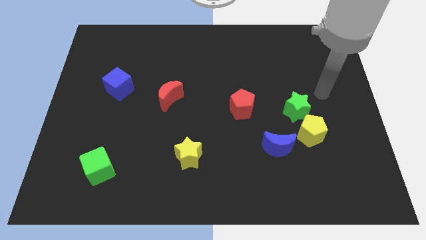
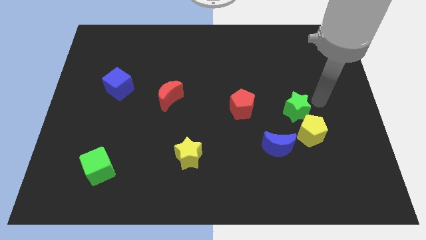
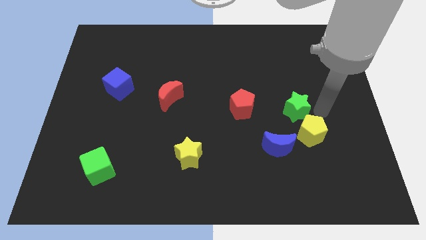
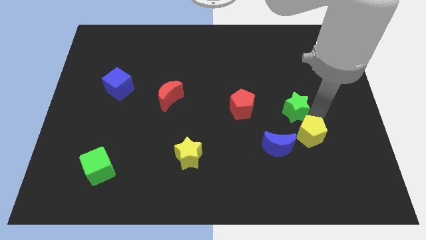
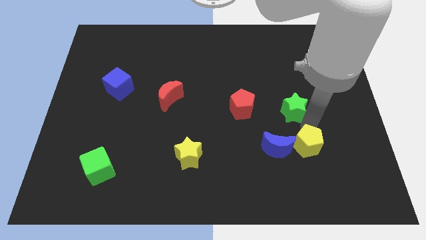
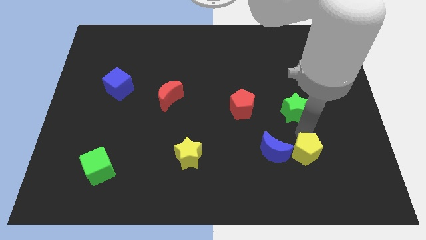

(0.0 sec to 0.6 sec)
move the green star away from the yellow pentagon

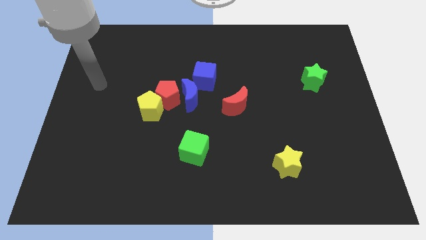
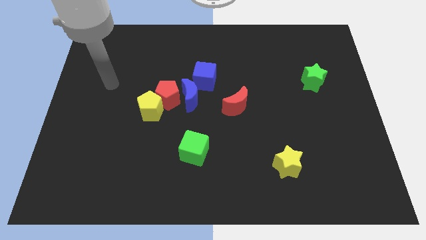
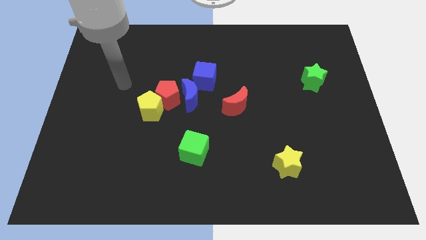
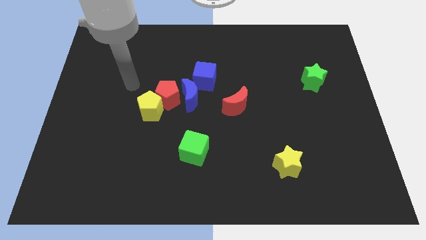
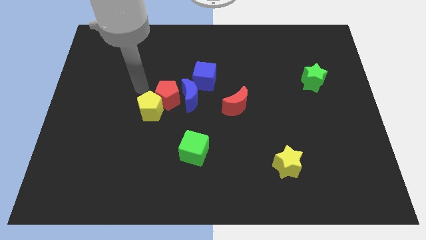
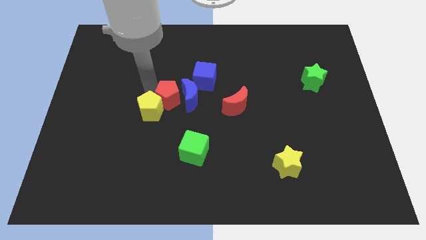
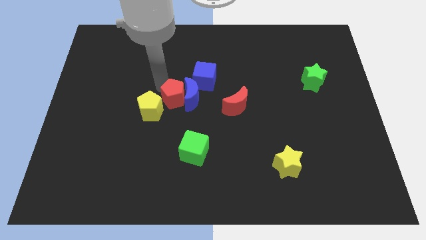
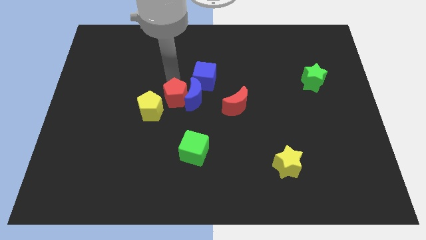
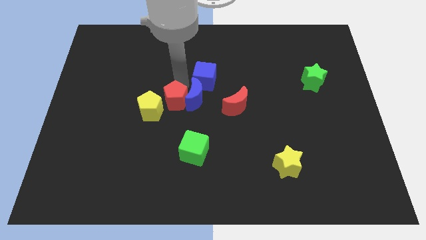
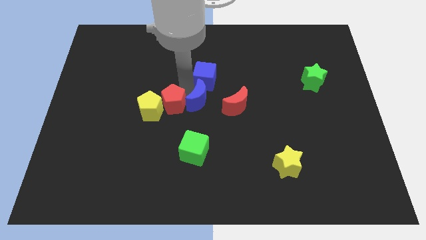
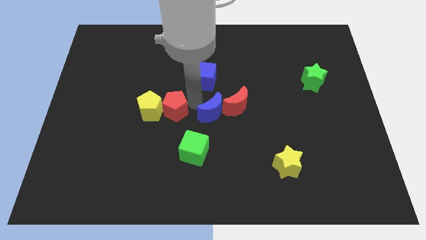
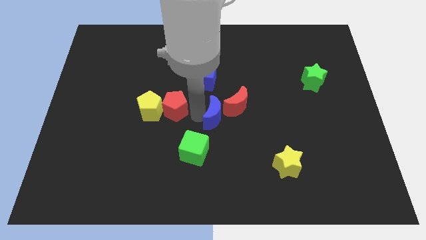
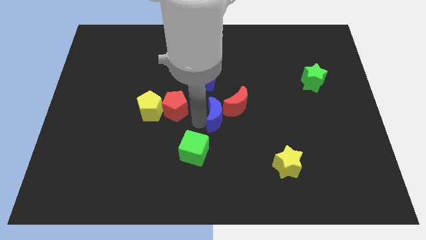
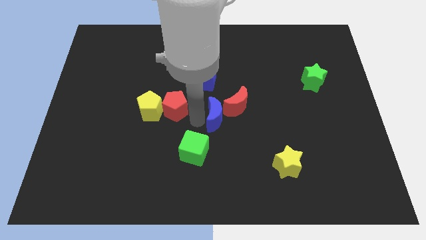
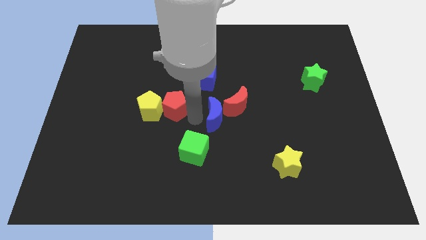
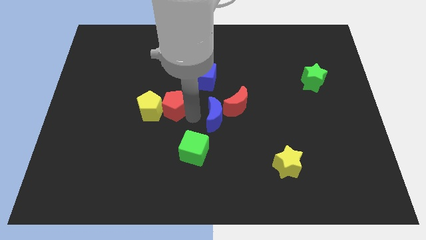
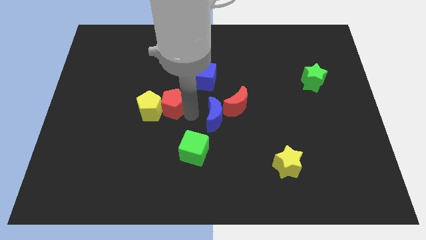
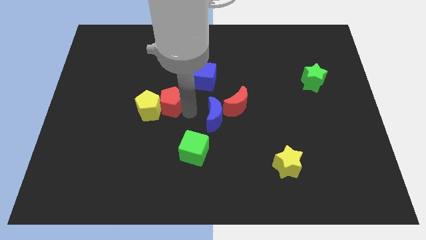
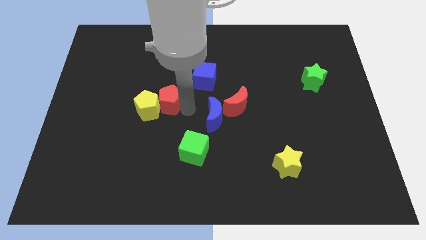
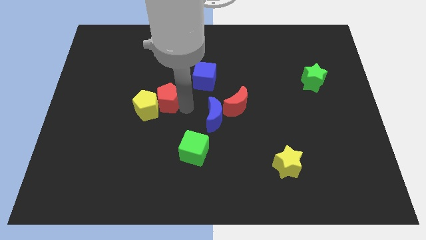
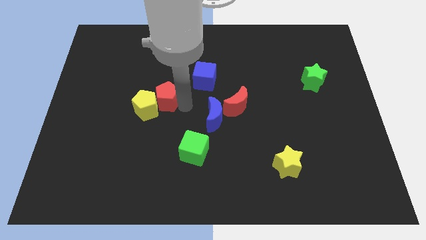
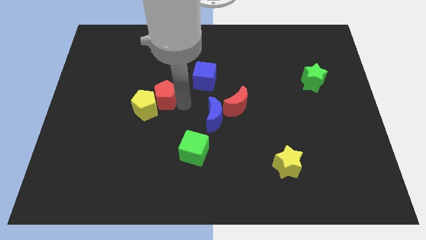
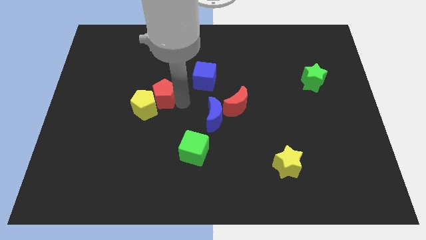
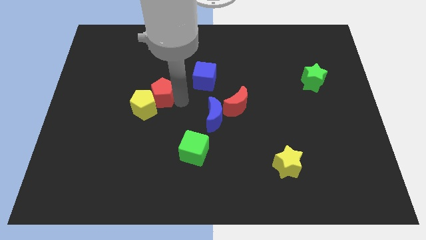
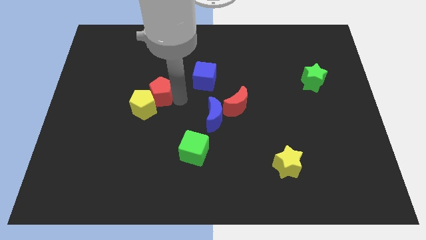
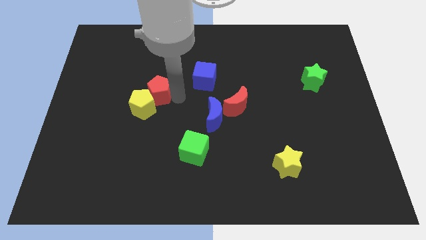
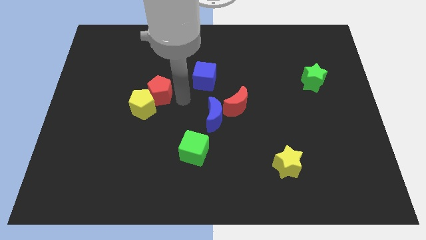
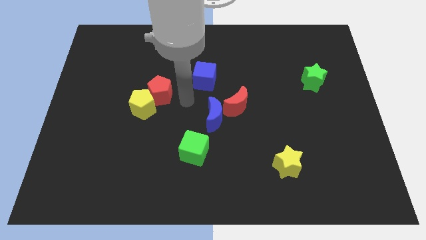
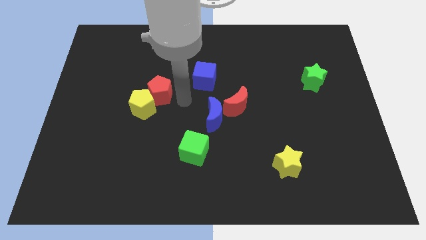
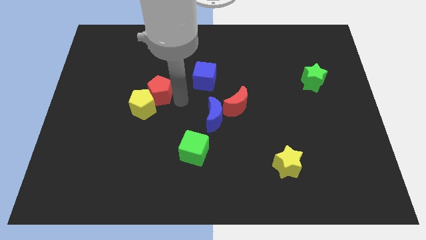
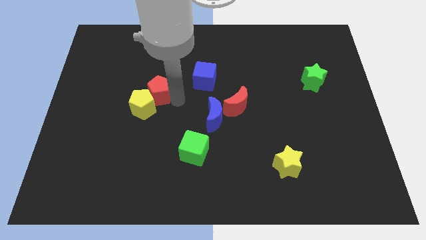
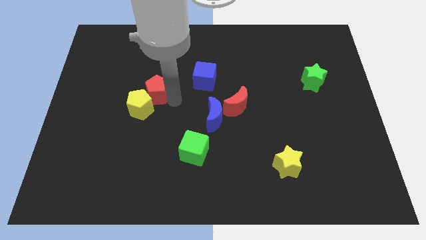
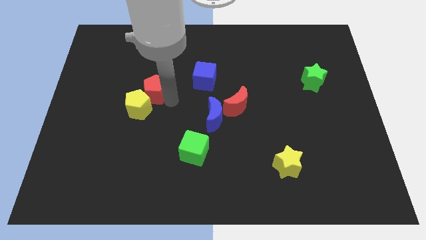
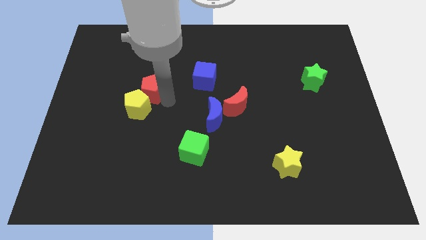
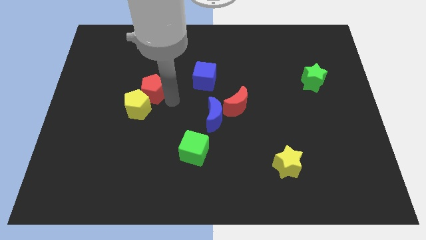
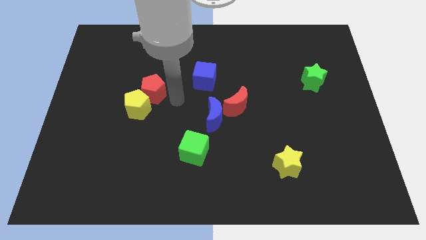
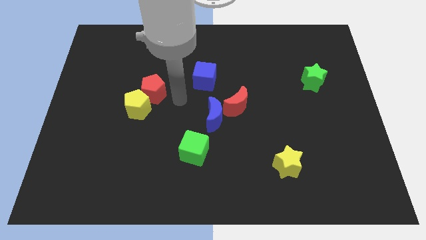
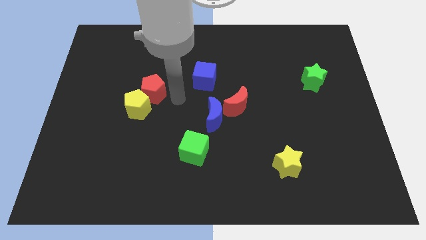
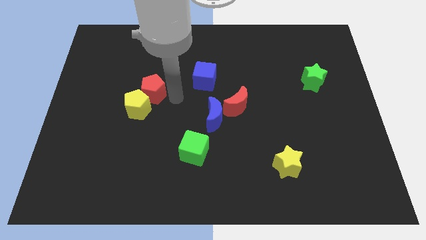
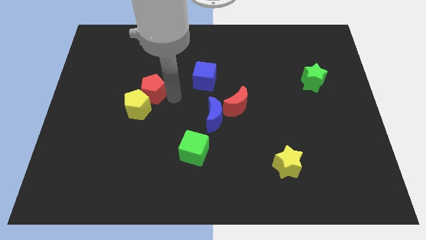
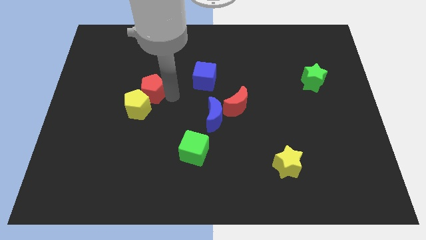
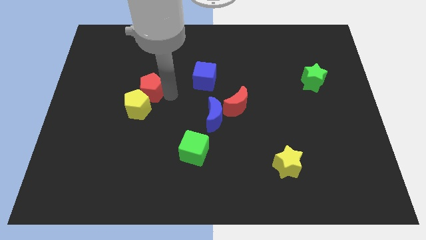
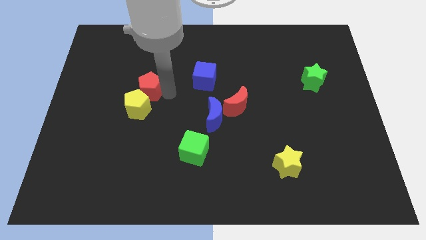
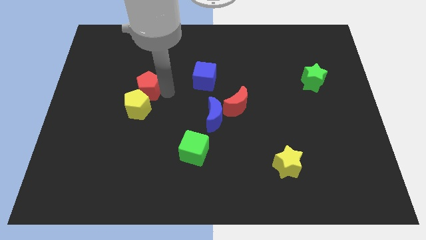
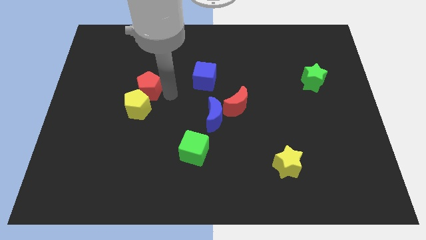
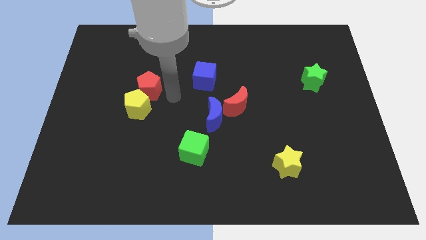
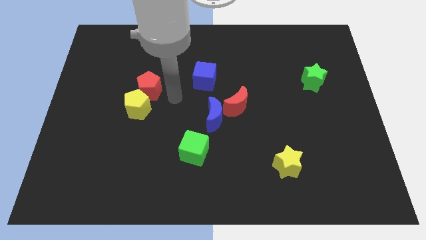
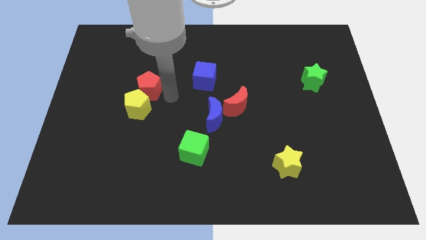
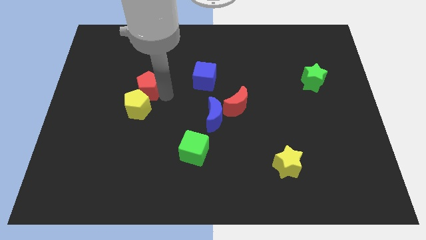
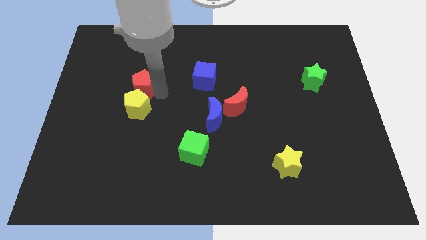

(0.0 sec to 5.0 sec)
separate the red pentagon from the blue moon, yellow pentagon, and blue cube

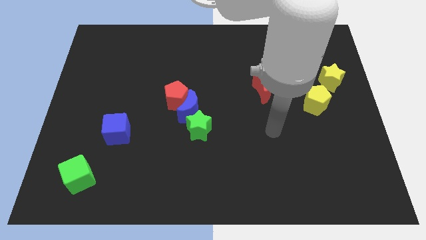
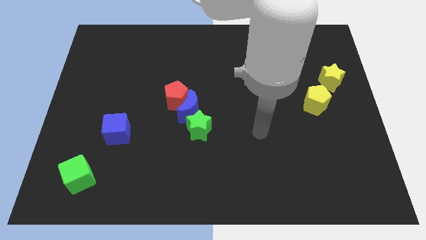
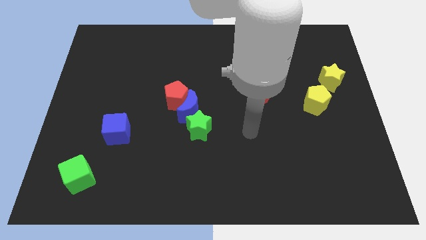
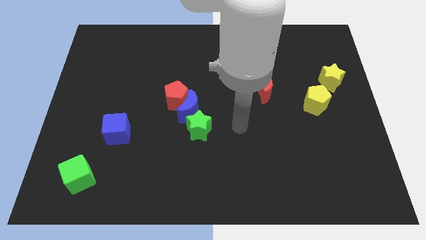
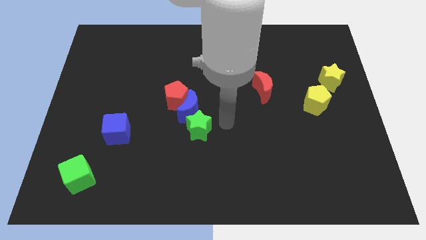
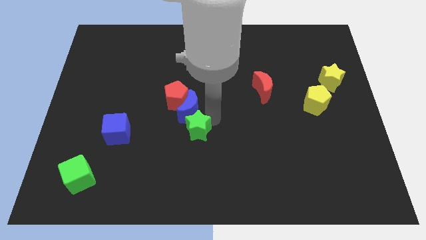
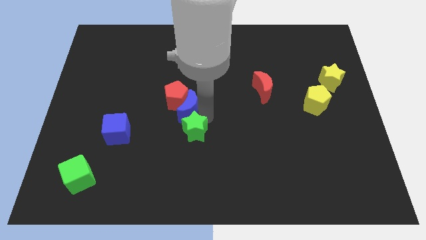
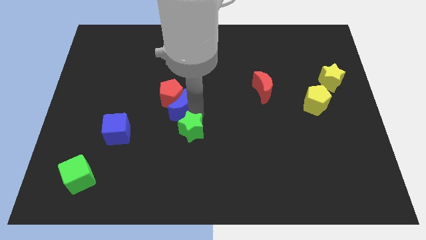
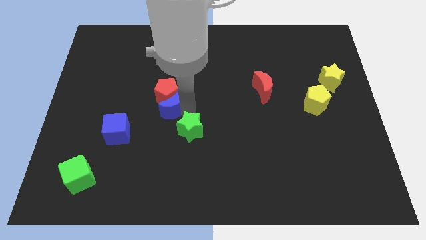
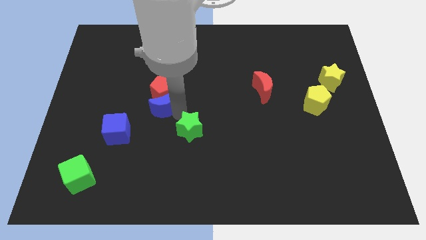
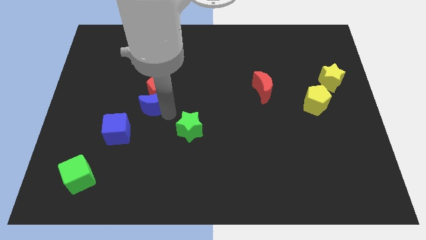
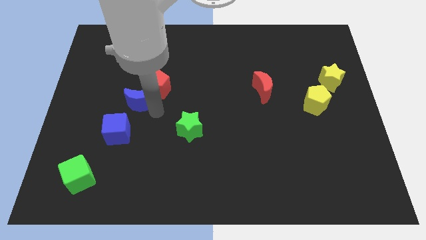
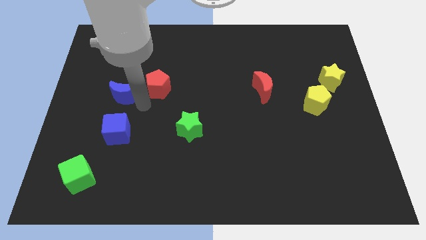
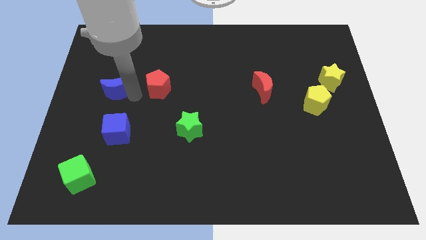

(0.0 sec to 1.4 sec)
pull the red pentagon apart from the blue moon

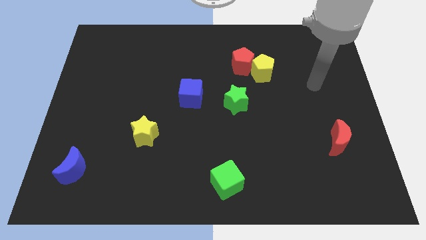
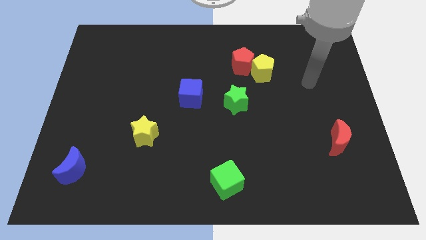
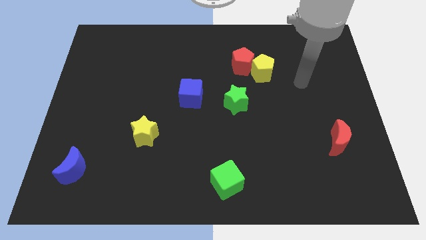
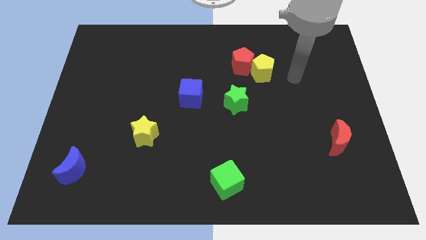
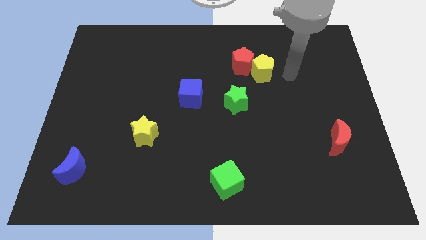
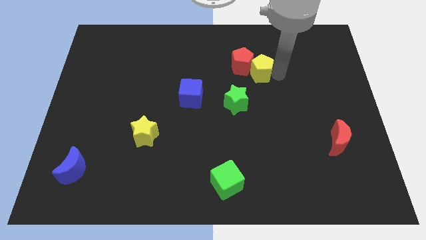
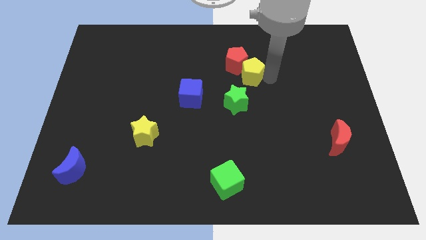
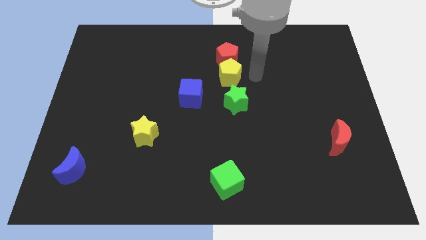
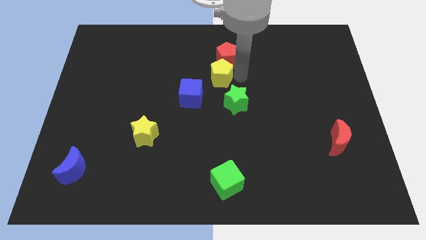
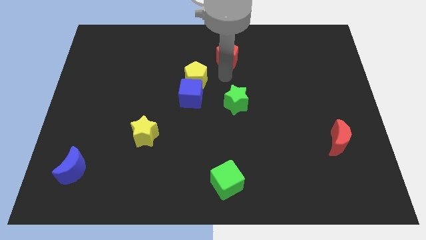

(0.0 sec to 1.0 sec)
move the red pentagon away from the yellow pentagon

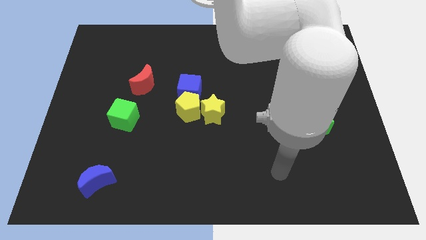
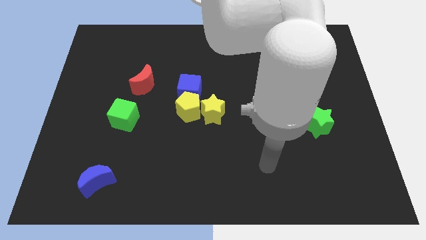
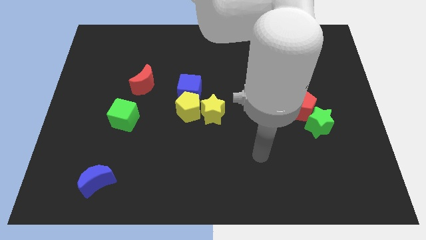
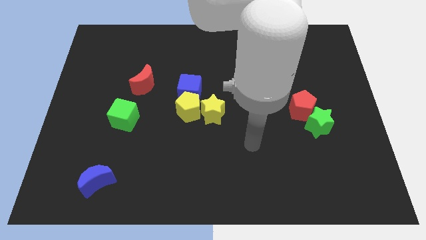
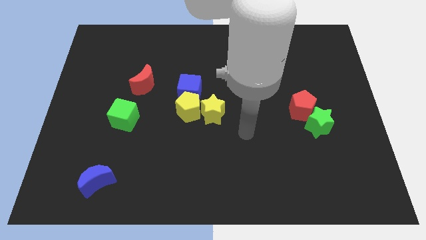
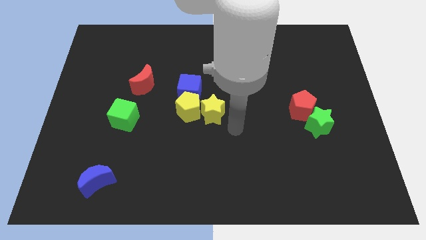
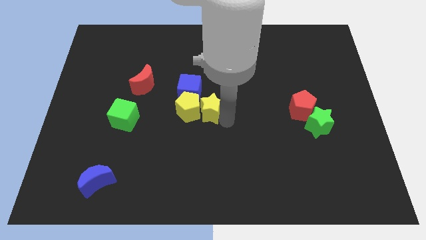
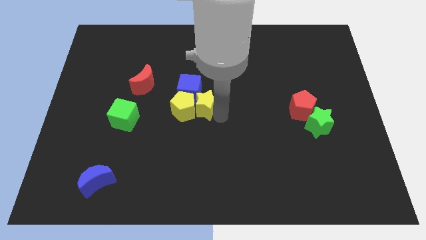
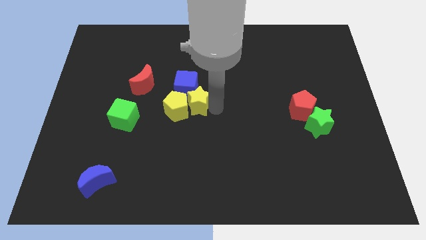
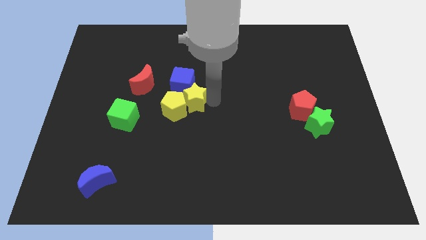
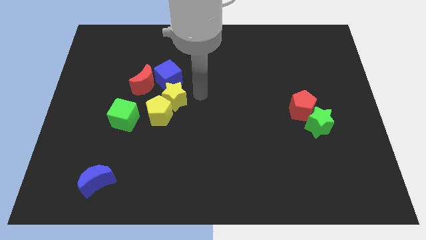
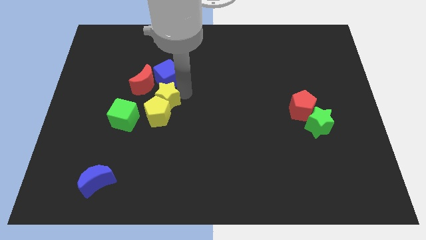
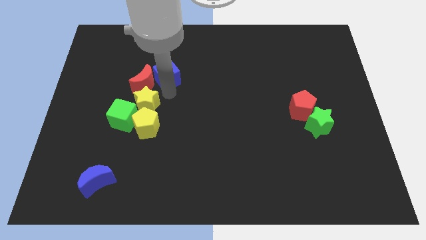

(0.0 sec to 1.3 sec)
move the yellow pentagon away from the blue cube and yellow star
